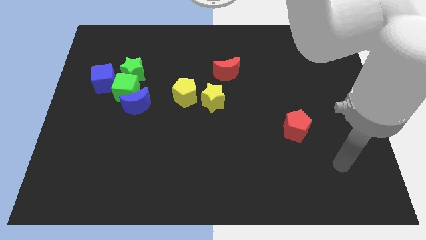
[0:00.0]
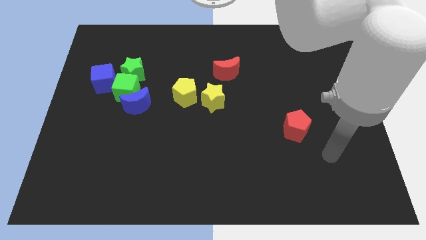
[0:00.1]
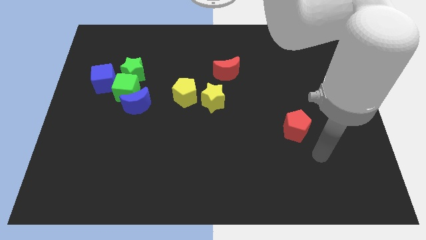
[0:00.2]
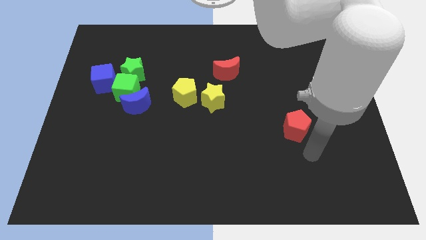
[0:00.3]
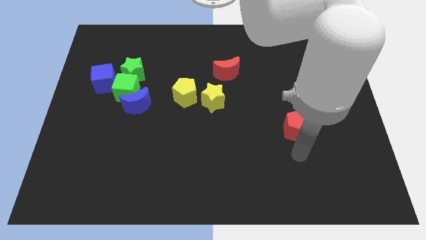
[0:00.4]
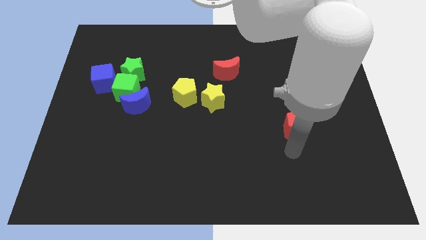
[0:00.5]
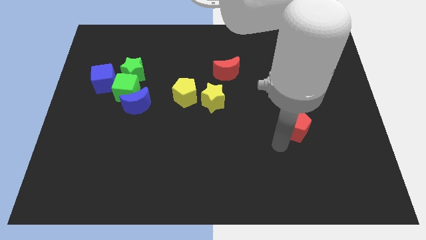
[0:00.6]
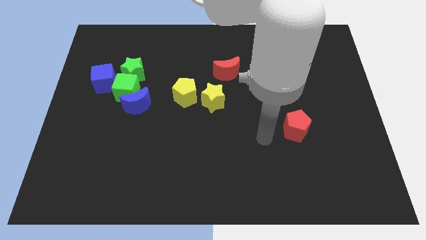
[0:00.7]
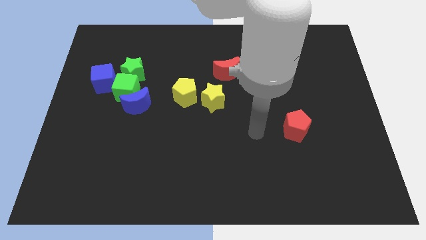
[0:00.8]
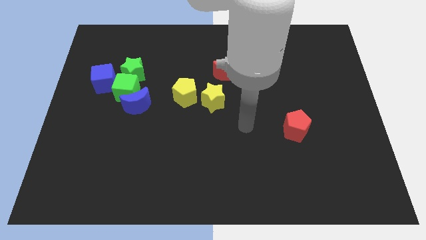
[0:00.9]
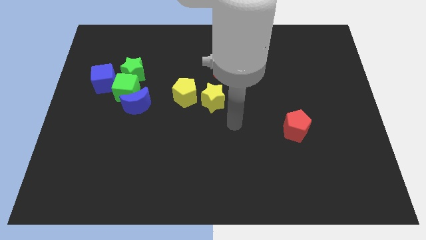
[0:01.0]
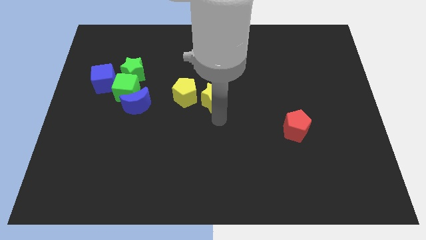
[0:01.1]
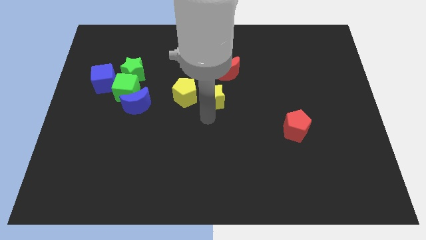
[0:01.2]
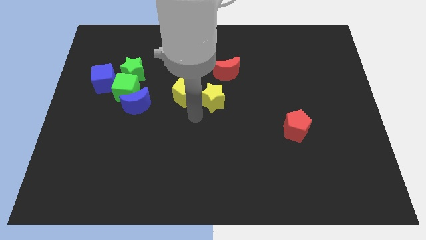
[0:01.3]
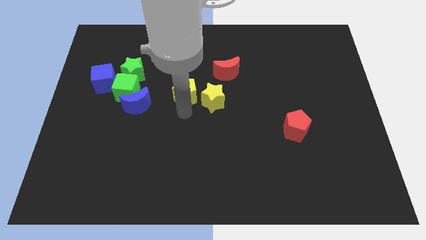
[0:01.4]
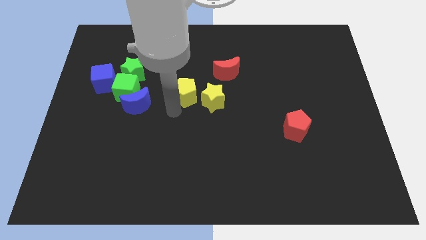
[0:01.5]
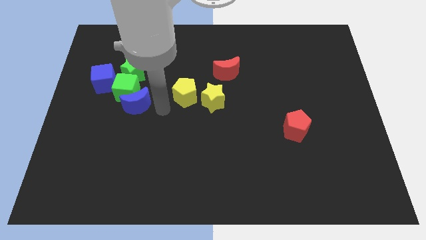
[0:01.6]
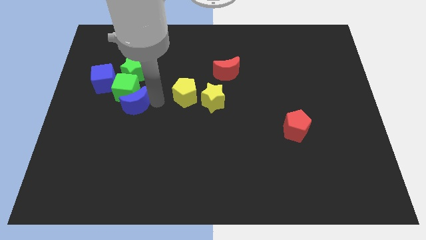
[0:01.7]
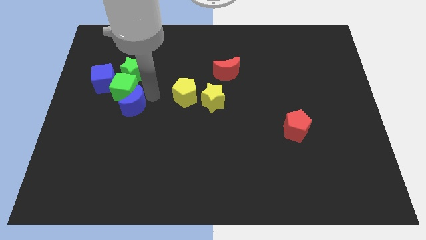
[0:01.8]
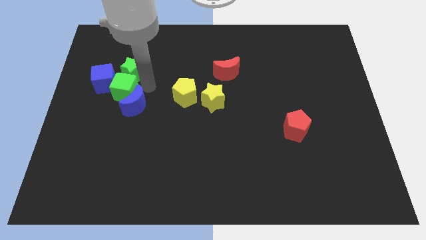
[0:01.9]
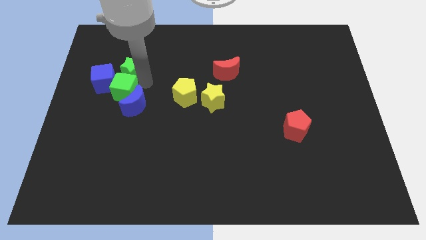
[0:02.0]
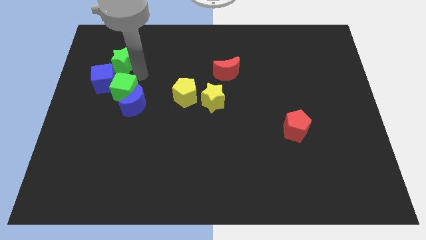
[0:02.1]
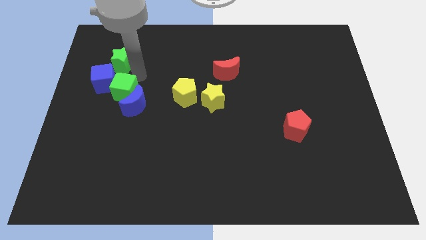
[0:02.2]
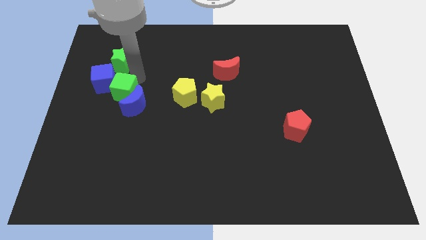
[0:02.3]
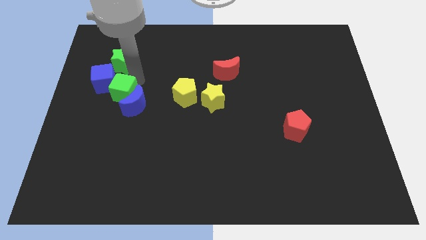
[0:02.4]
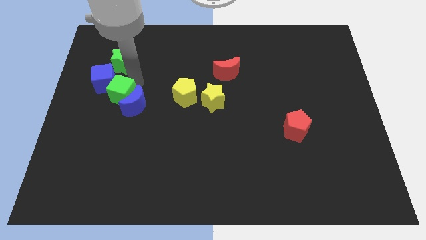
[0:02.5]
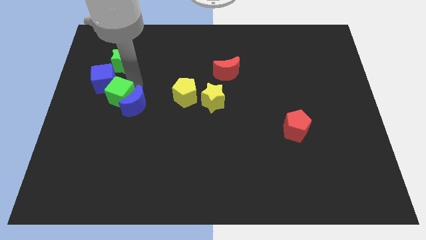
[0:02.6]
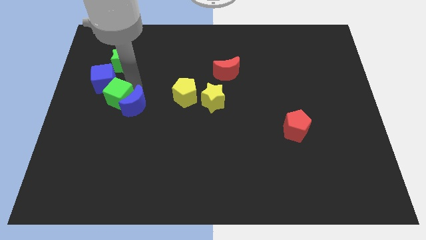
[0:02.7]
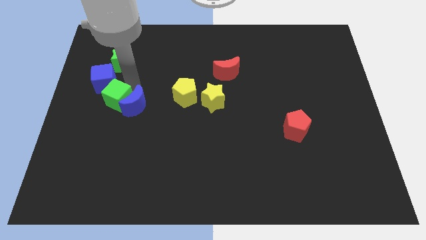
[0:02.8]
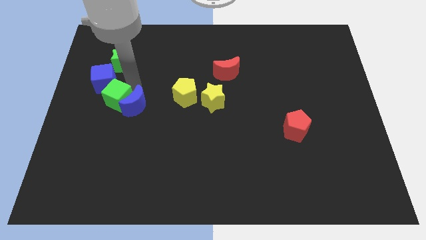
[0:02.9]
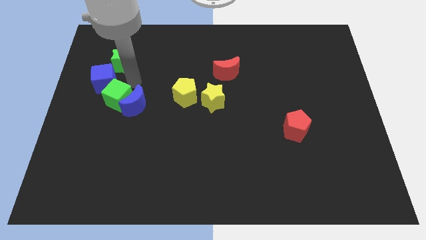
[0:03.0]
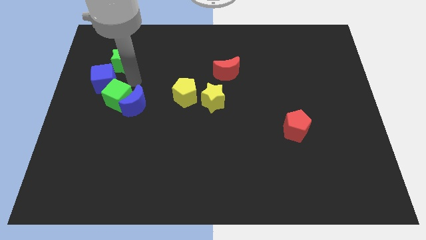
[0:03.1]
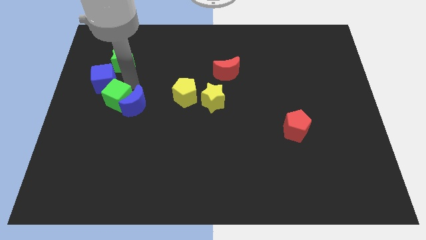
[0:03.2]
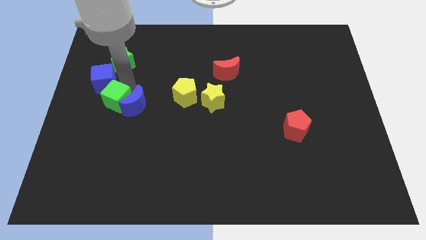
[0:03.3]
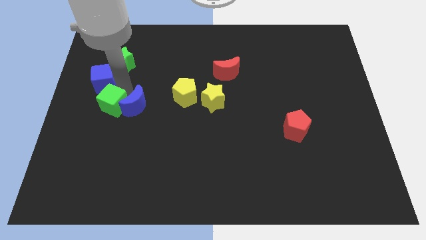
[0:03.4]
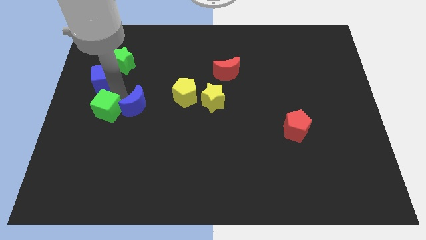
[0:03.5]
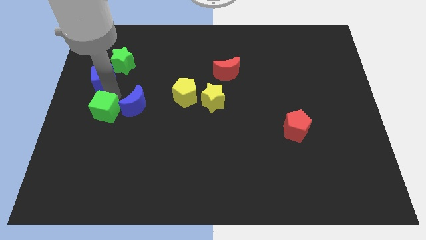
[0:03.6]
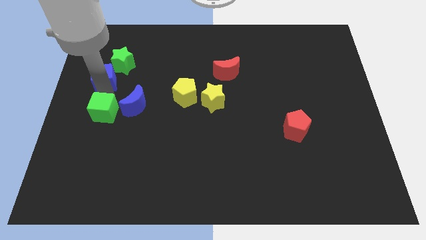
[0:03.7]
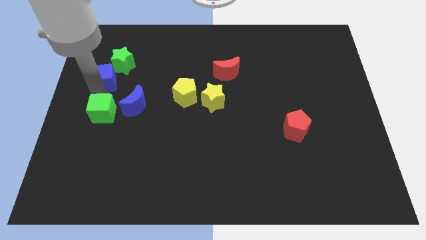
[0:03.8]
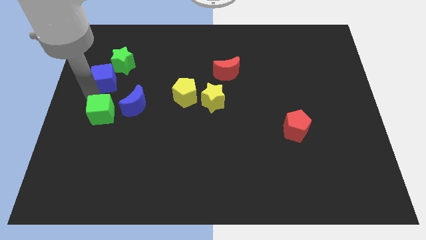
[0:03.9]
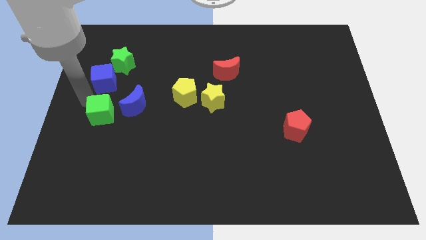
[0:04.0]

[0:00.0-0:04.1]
move the green cube away from the blue moon, green star, and blue cube

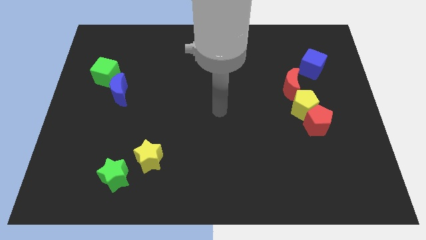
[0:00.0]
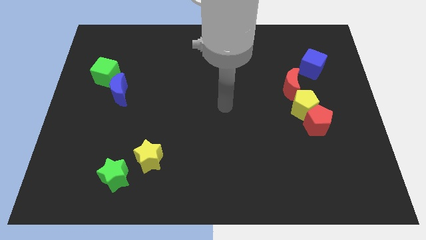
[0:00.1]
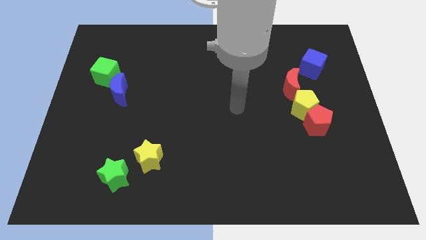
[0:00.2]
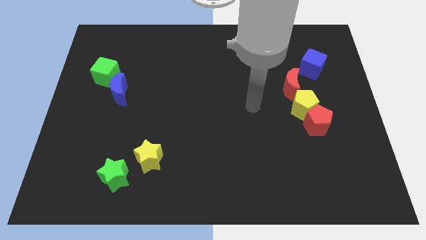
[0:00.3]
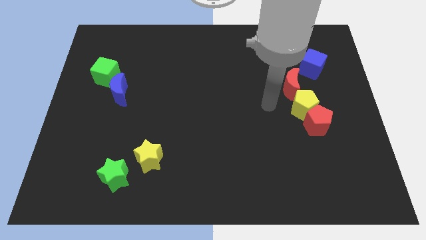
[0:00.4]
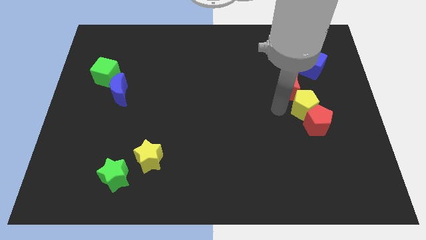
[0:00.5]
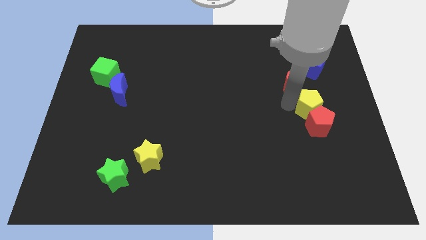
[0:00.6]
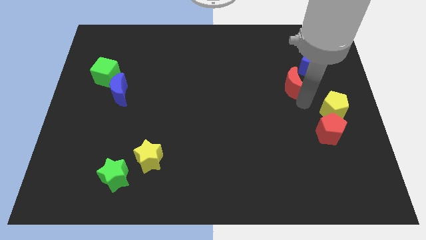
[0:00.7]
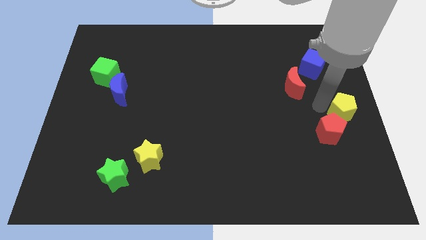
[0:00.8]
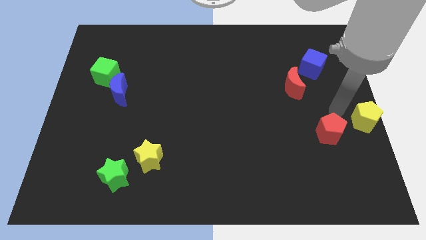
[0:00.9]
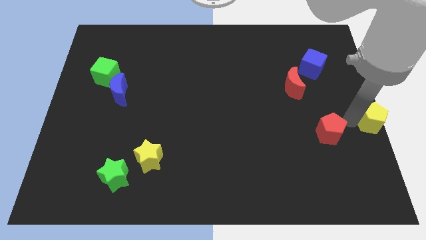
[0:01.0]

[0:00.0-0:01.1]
separate the red pentagon from the yellow pentagon

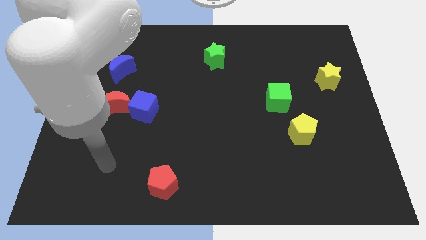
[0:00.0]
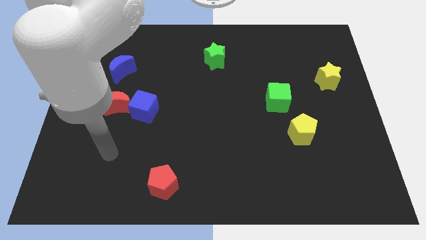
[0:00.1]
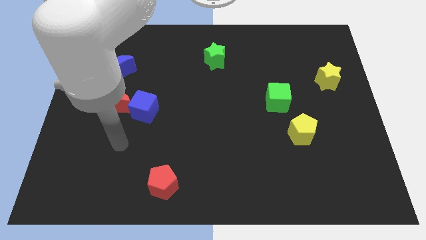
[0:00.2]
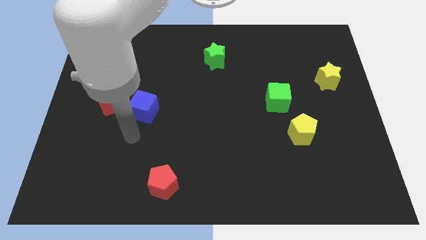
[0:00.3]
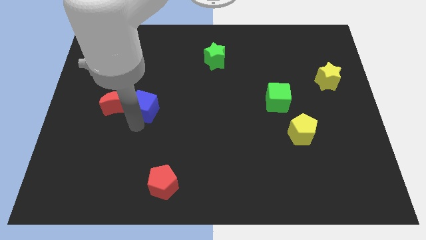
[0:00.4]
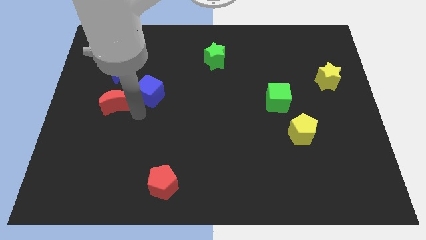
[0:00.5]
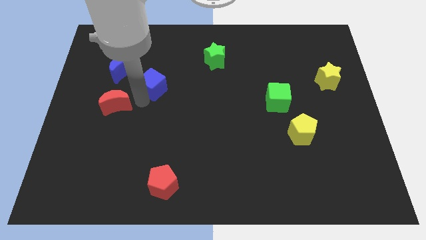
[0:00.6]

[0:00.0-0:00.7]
pull the red moon apart from the blue cube

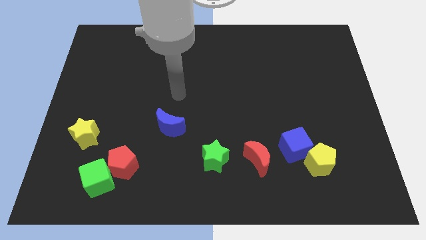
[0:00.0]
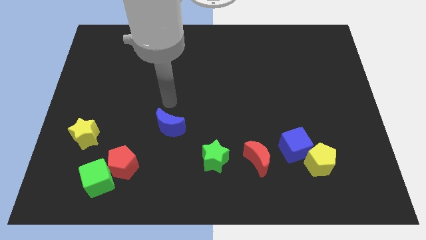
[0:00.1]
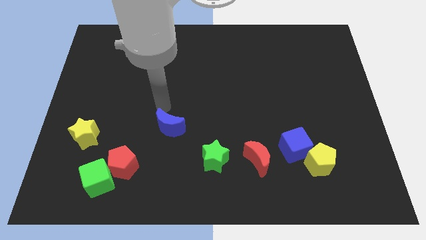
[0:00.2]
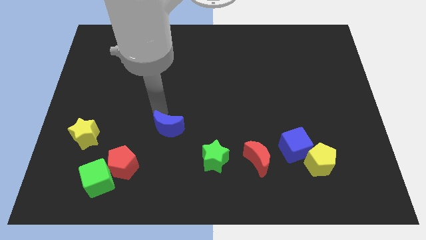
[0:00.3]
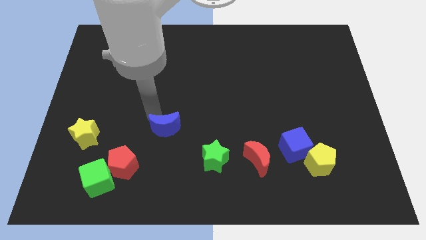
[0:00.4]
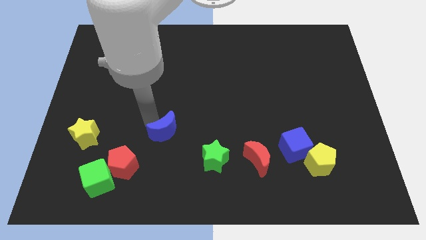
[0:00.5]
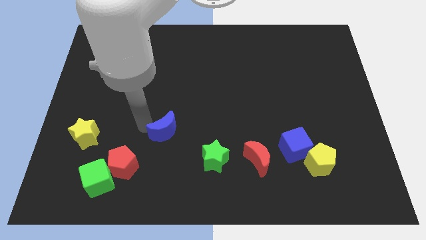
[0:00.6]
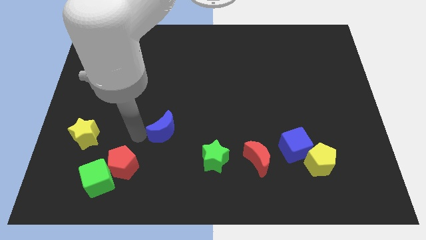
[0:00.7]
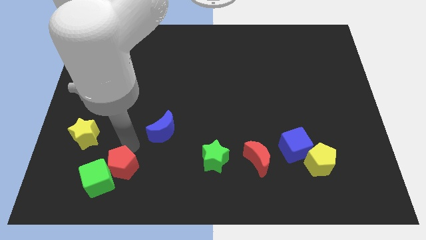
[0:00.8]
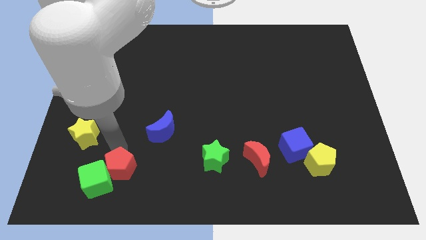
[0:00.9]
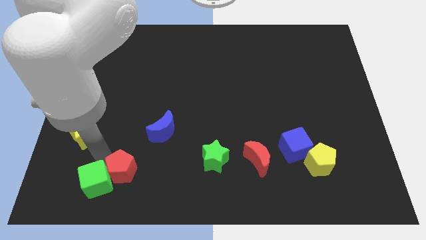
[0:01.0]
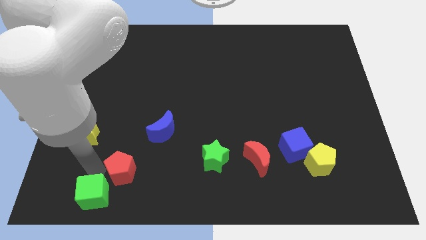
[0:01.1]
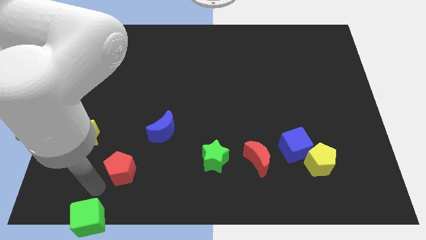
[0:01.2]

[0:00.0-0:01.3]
pull the red pentagon apart from the green cube

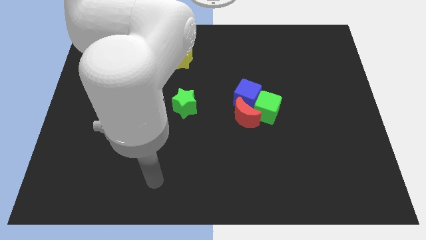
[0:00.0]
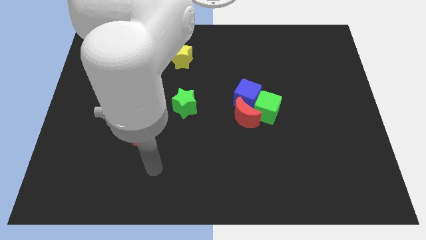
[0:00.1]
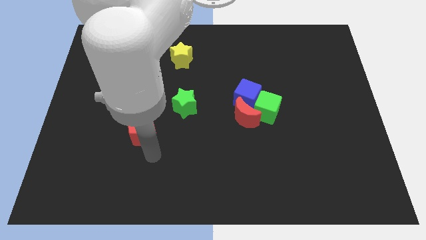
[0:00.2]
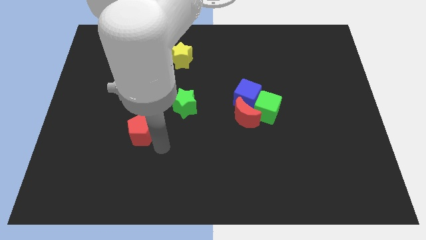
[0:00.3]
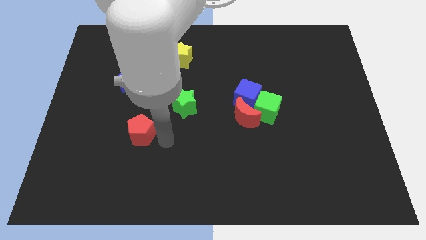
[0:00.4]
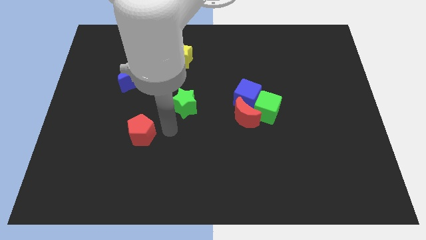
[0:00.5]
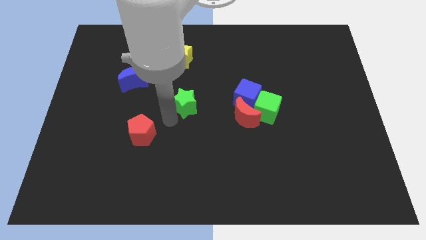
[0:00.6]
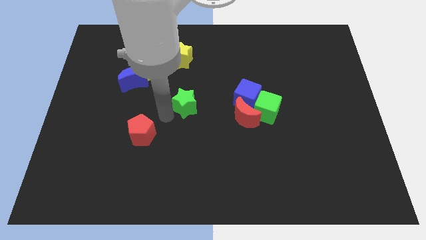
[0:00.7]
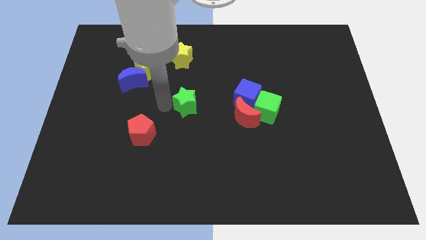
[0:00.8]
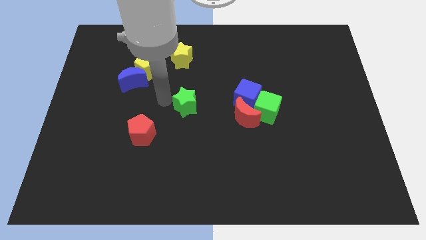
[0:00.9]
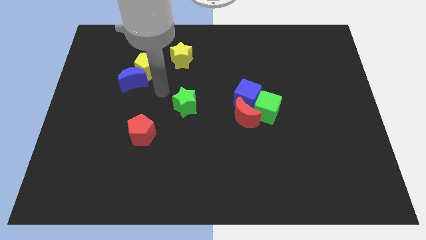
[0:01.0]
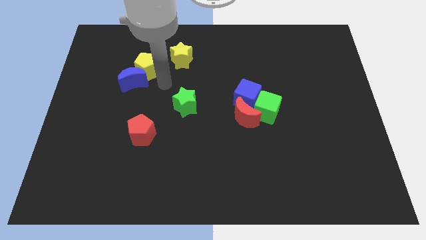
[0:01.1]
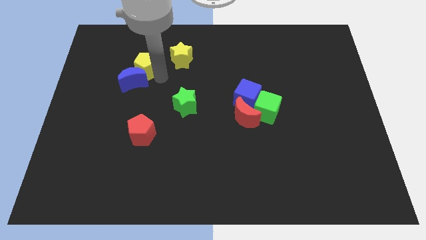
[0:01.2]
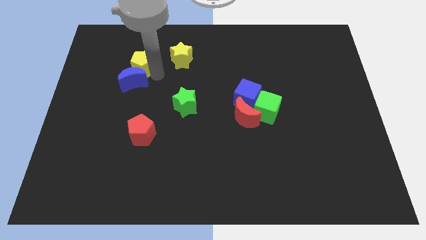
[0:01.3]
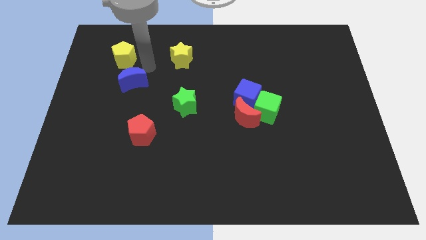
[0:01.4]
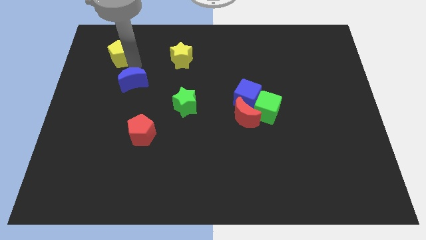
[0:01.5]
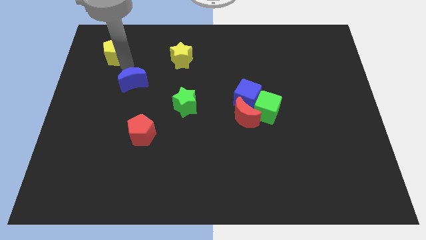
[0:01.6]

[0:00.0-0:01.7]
separate the blue moon from the yellow pentagon

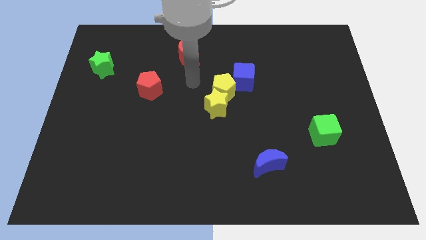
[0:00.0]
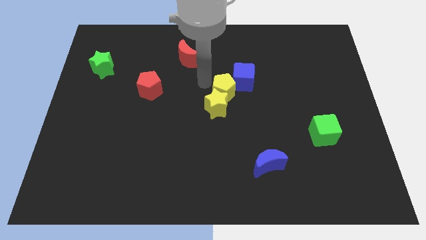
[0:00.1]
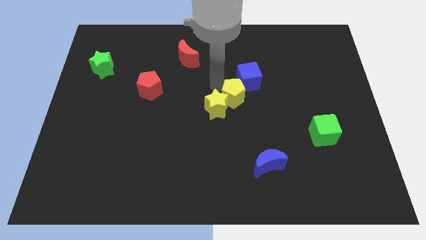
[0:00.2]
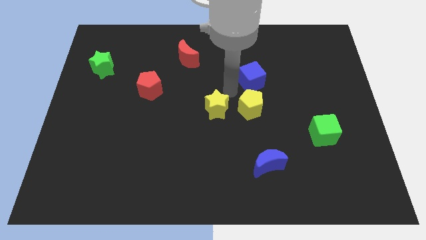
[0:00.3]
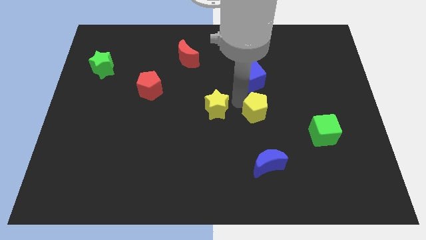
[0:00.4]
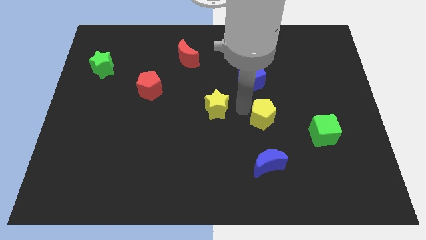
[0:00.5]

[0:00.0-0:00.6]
pull the yellow star apart from the yellow pentagon
